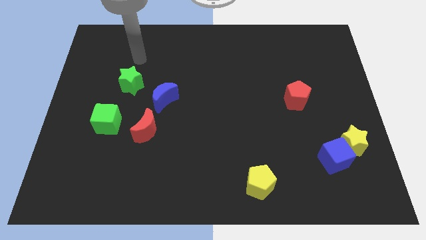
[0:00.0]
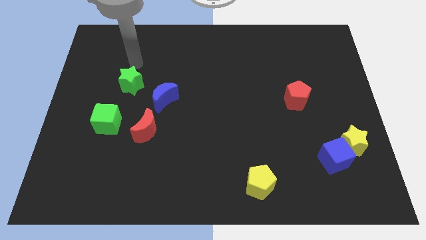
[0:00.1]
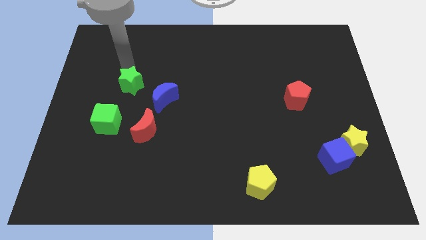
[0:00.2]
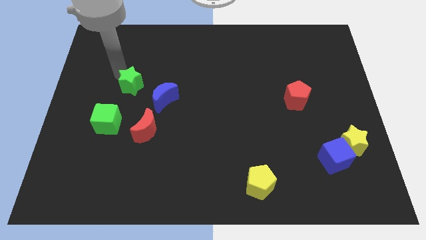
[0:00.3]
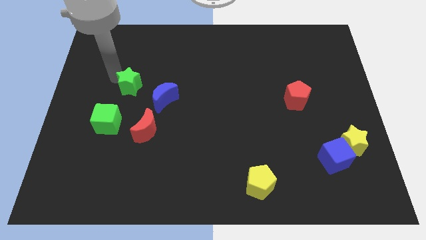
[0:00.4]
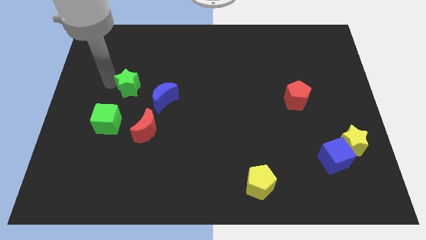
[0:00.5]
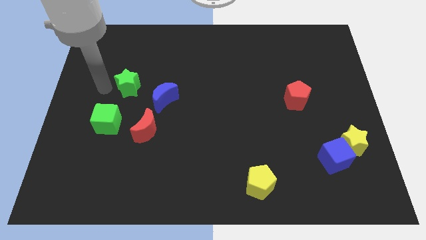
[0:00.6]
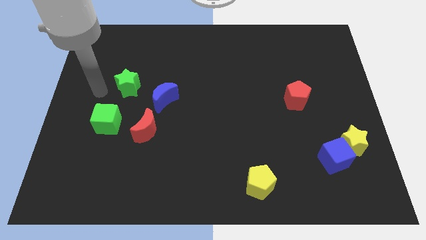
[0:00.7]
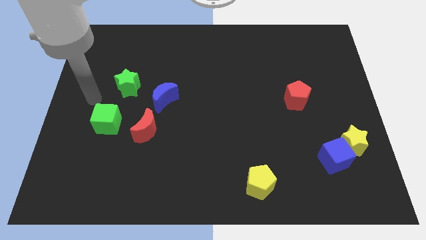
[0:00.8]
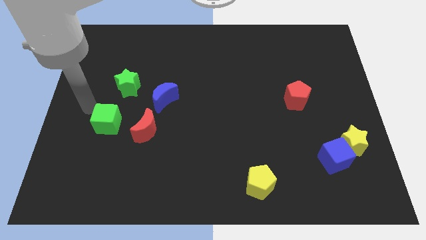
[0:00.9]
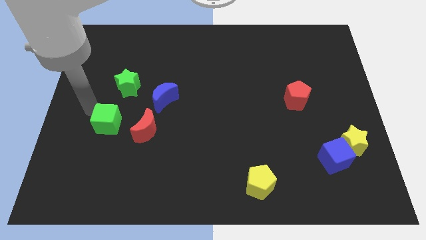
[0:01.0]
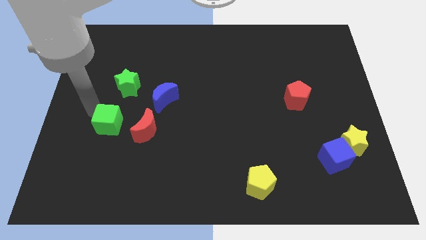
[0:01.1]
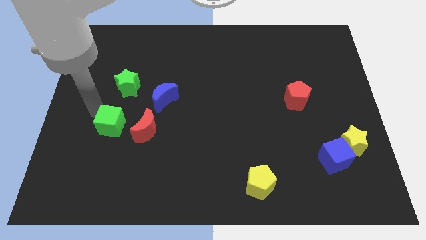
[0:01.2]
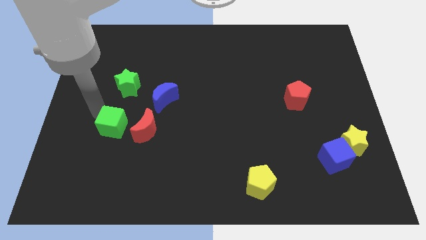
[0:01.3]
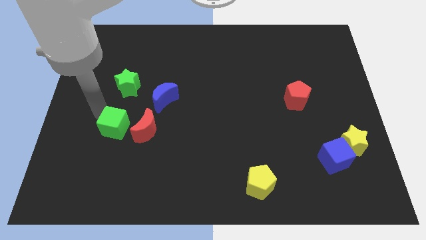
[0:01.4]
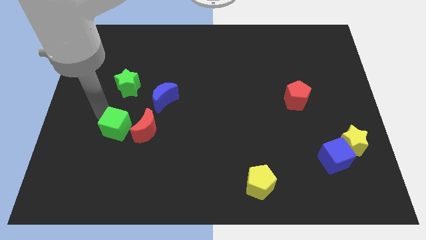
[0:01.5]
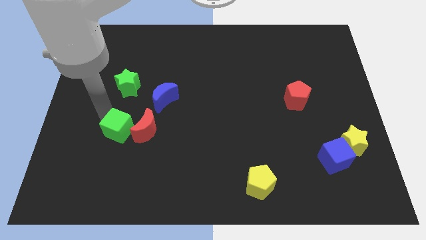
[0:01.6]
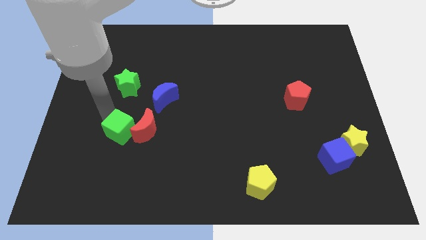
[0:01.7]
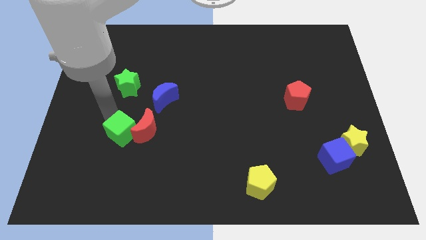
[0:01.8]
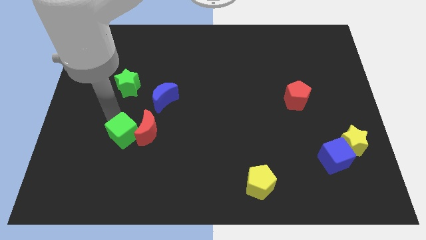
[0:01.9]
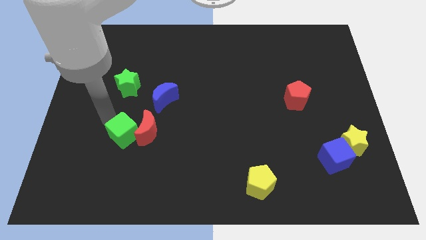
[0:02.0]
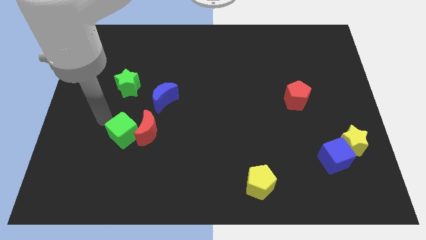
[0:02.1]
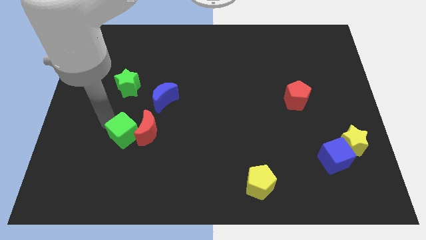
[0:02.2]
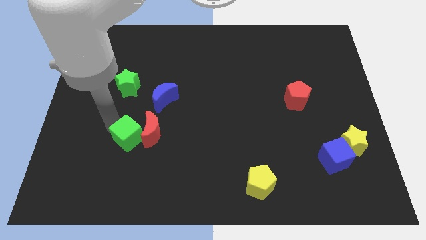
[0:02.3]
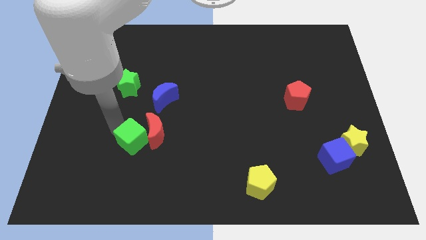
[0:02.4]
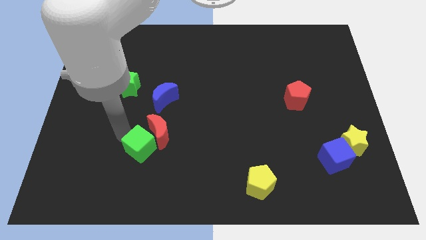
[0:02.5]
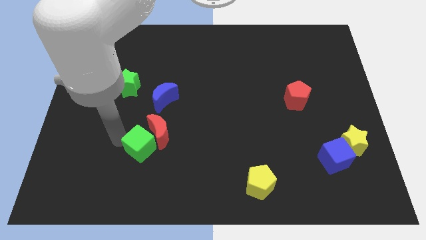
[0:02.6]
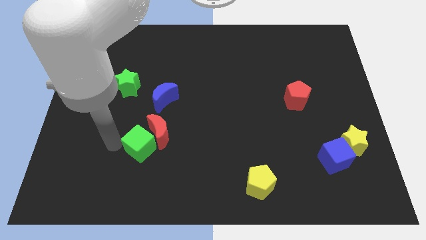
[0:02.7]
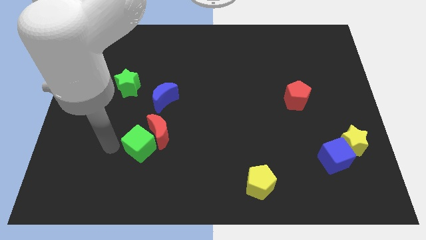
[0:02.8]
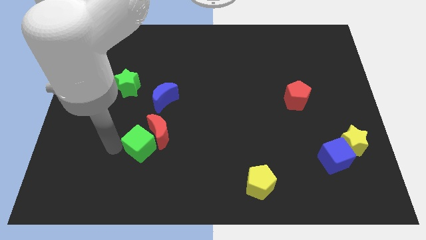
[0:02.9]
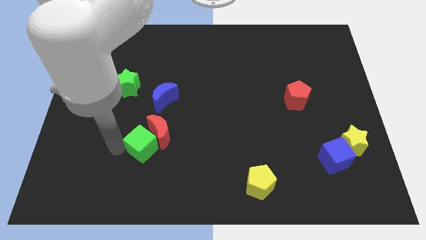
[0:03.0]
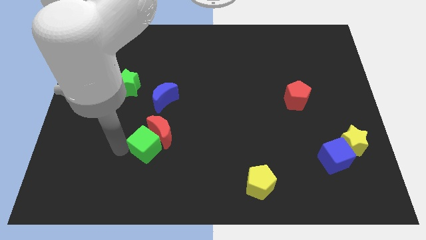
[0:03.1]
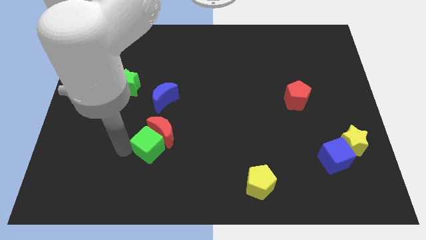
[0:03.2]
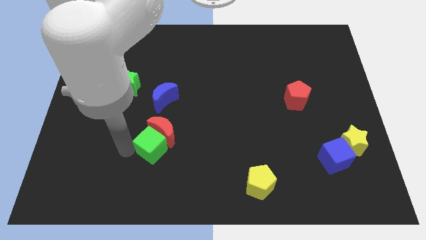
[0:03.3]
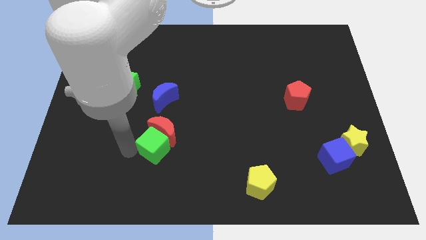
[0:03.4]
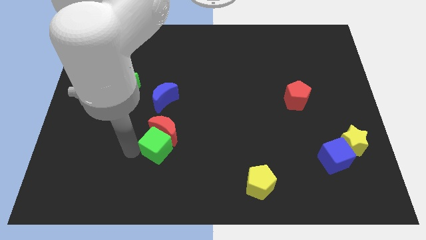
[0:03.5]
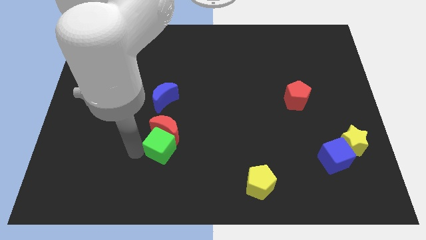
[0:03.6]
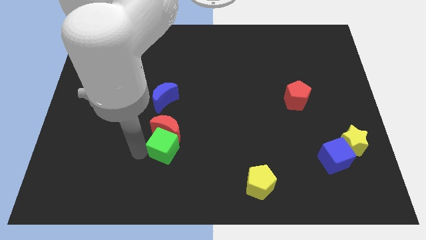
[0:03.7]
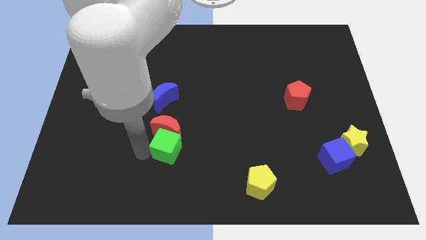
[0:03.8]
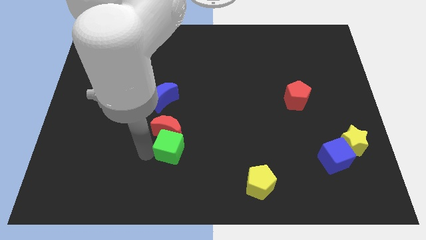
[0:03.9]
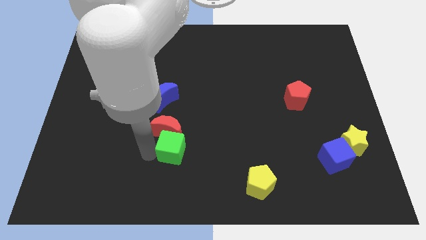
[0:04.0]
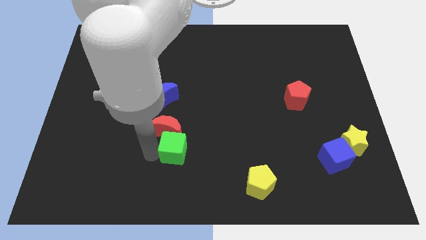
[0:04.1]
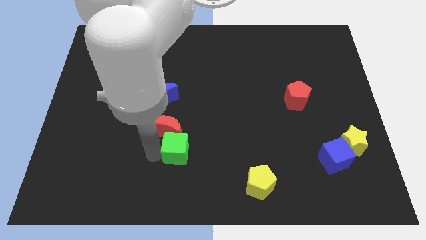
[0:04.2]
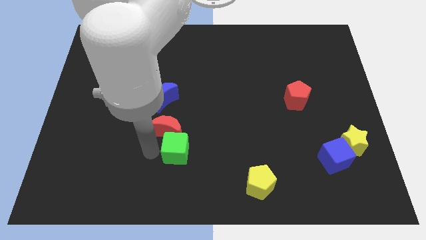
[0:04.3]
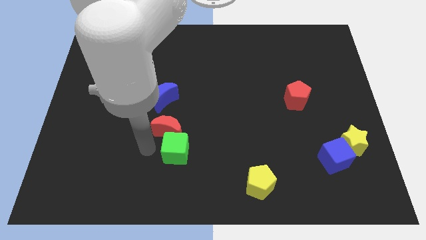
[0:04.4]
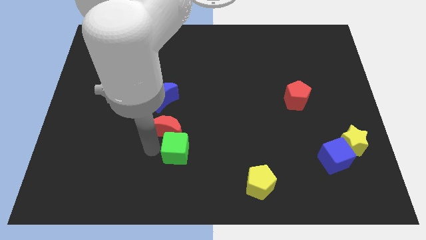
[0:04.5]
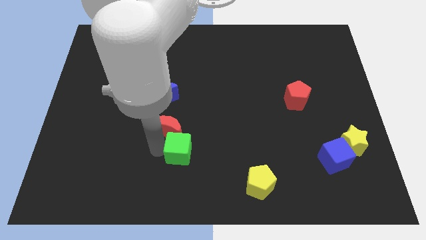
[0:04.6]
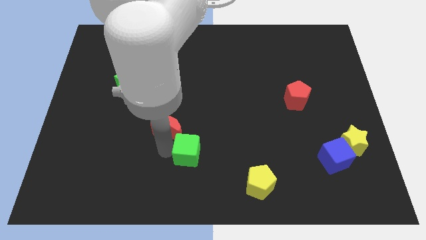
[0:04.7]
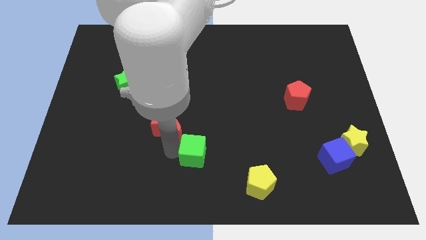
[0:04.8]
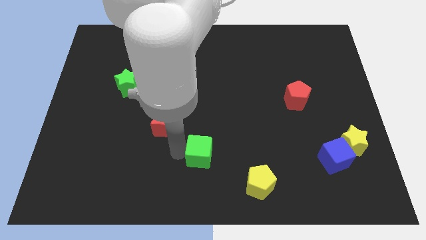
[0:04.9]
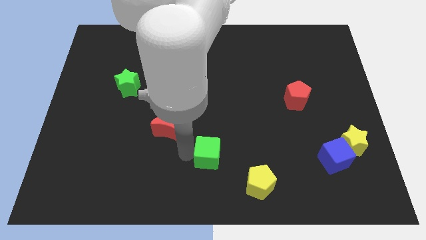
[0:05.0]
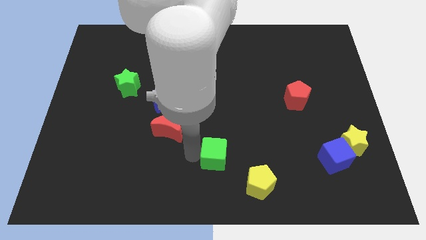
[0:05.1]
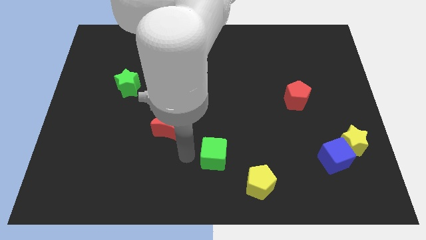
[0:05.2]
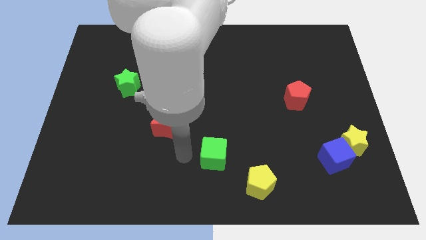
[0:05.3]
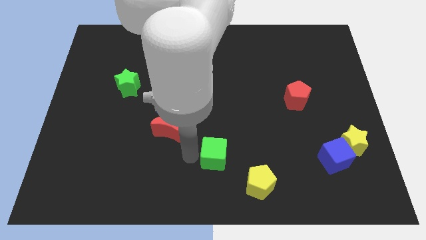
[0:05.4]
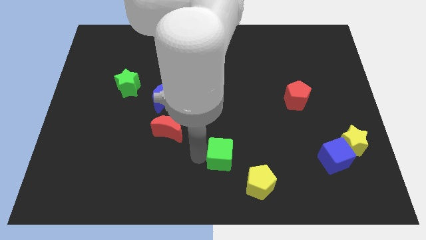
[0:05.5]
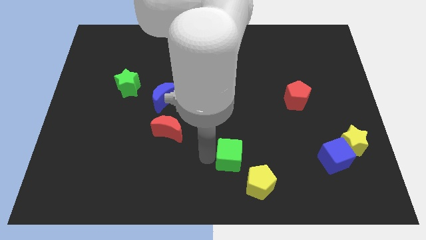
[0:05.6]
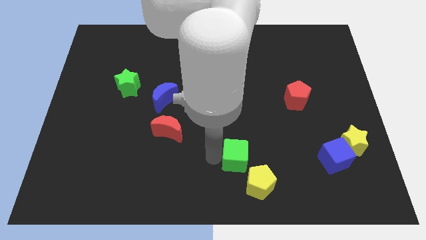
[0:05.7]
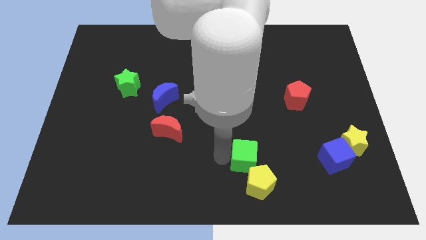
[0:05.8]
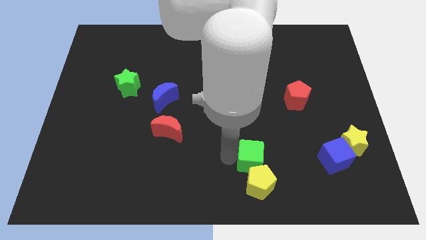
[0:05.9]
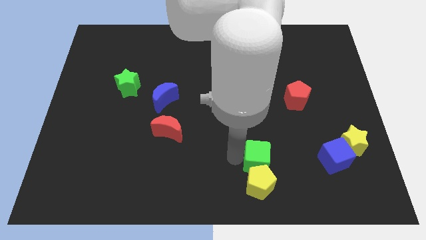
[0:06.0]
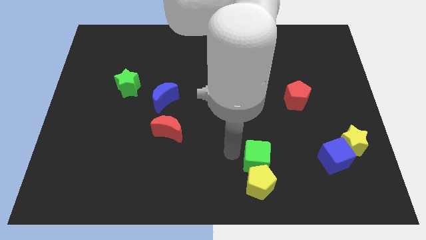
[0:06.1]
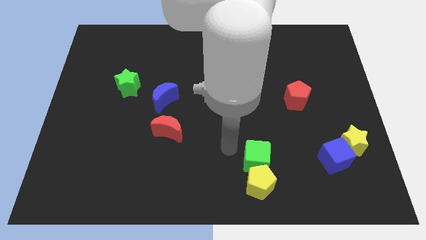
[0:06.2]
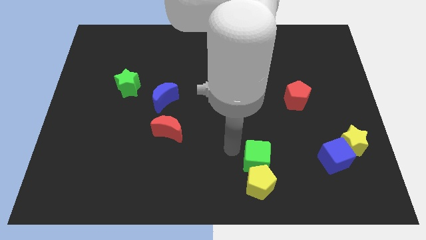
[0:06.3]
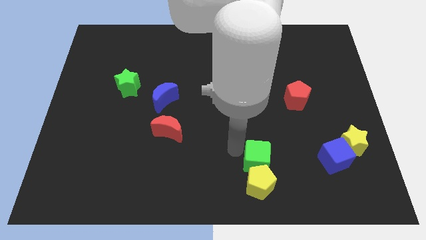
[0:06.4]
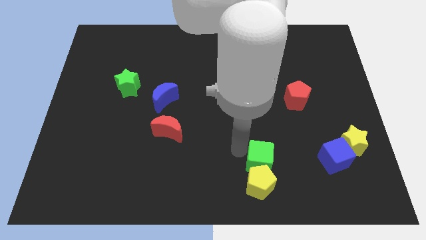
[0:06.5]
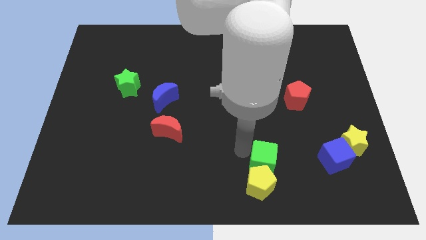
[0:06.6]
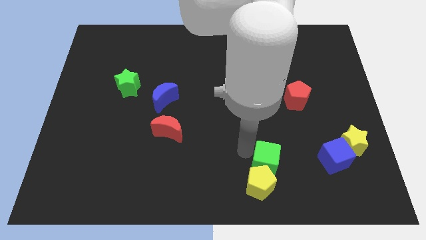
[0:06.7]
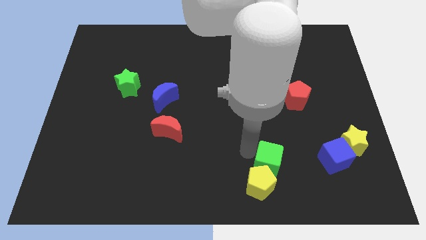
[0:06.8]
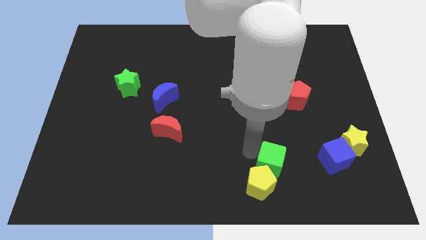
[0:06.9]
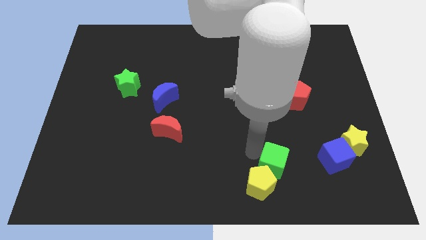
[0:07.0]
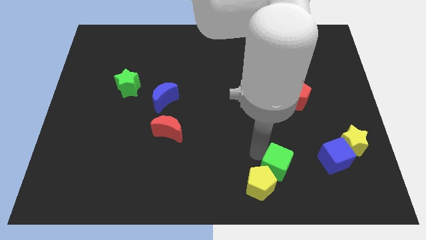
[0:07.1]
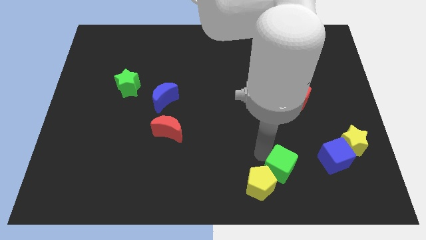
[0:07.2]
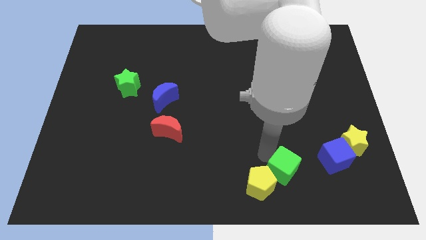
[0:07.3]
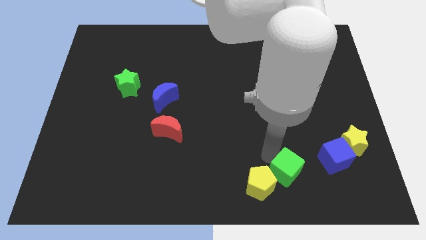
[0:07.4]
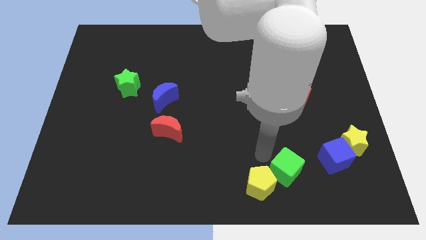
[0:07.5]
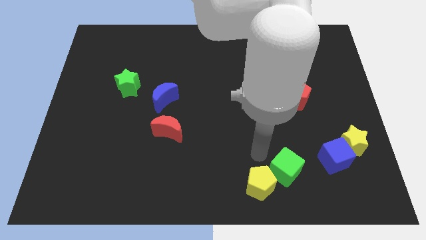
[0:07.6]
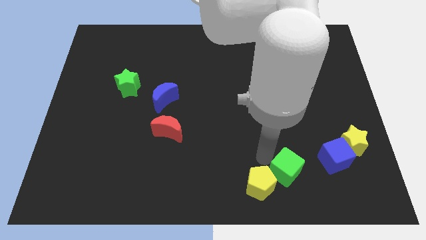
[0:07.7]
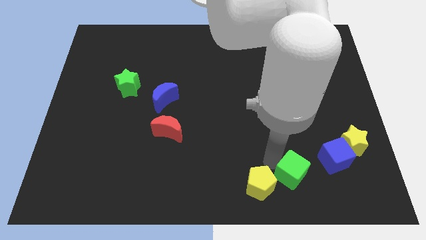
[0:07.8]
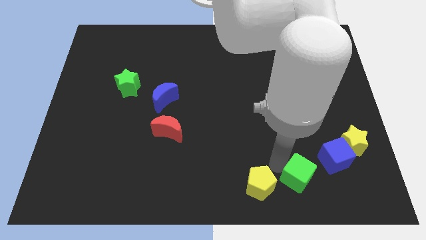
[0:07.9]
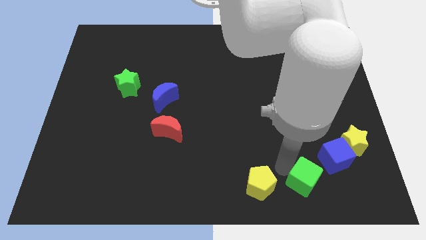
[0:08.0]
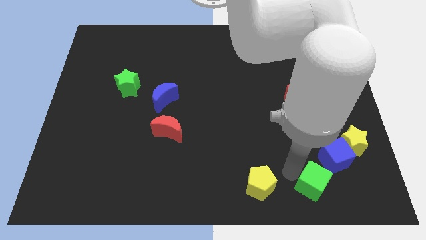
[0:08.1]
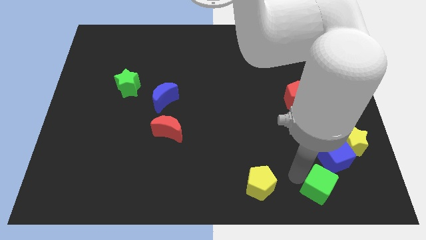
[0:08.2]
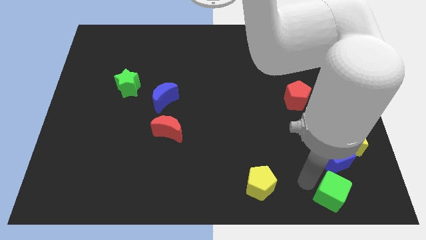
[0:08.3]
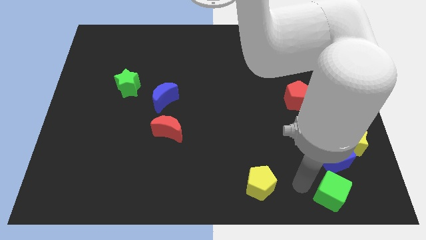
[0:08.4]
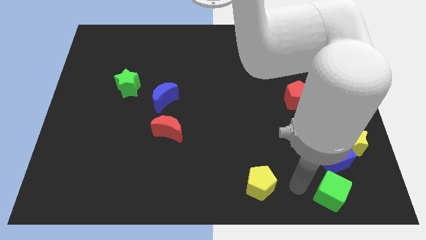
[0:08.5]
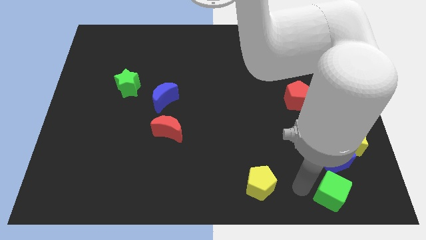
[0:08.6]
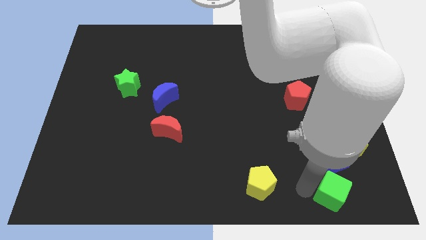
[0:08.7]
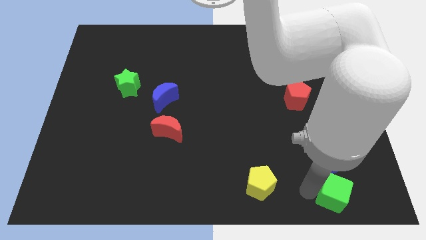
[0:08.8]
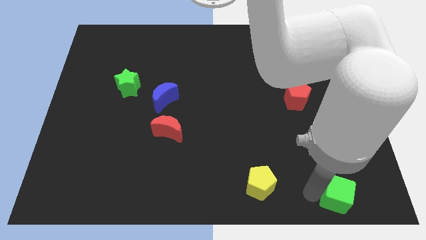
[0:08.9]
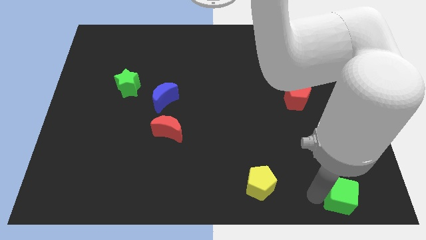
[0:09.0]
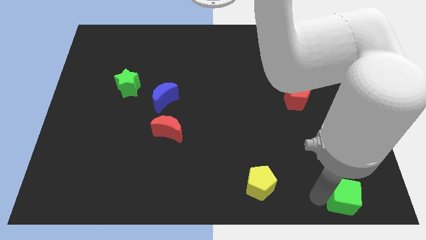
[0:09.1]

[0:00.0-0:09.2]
slide the green cube to the bottom right corner
